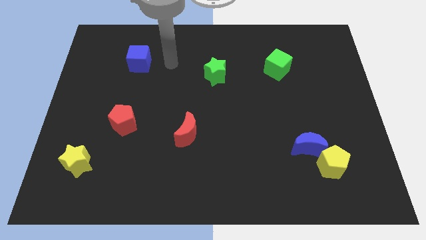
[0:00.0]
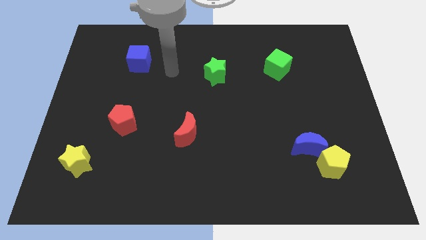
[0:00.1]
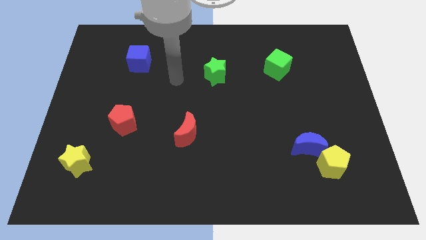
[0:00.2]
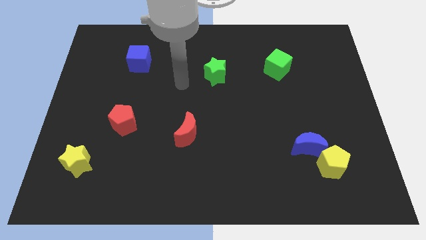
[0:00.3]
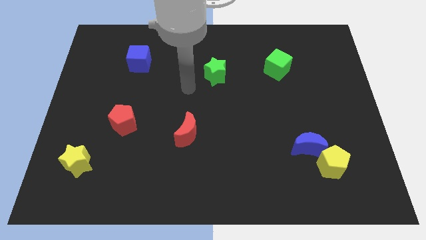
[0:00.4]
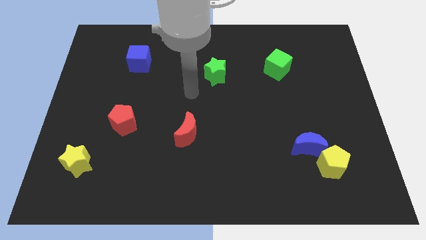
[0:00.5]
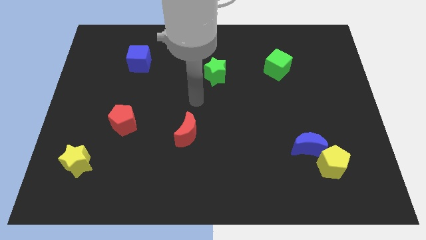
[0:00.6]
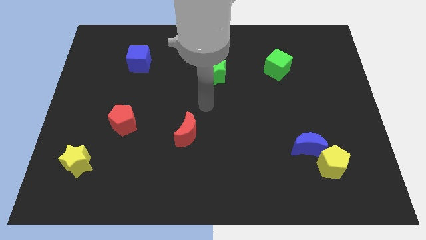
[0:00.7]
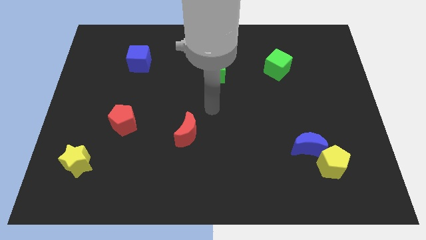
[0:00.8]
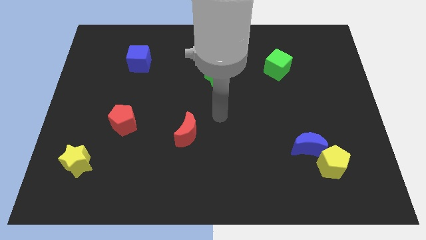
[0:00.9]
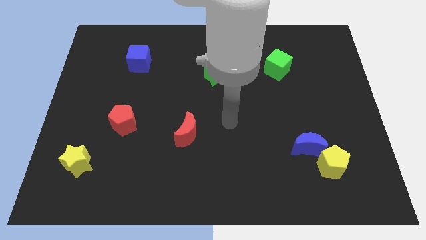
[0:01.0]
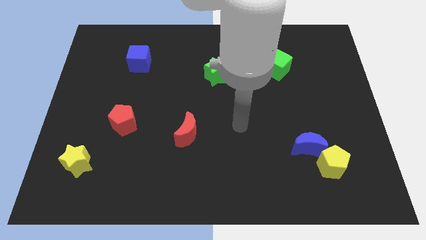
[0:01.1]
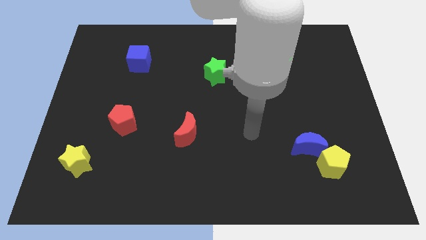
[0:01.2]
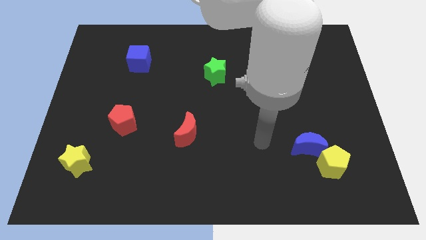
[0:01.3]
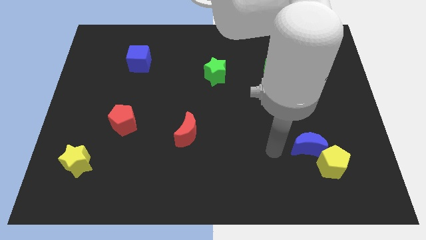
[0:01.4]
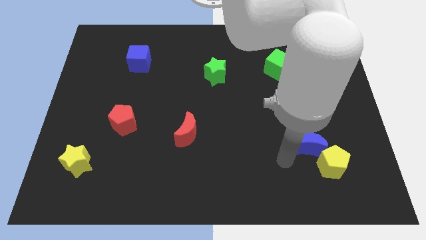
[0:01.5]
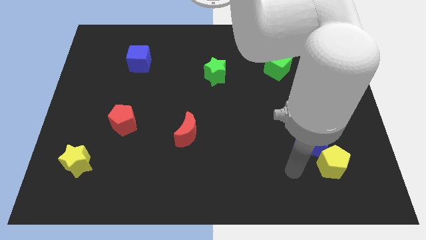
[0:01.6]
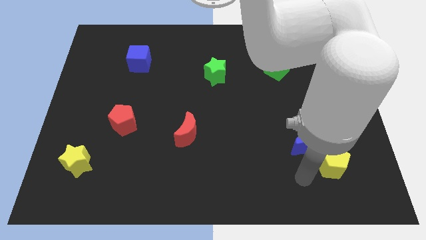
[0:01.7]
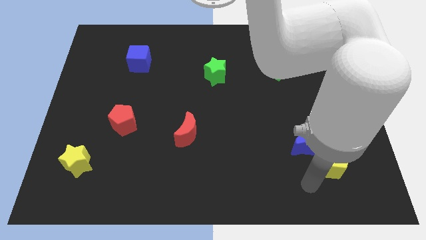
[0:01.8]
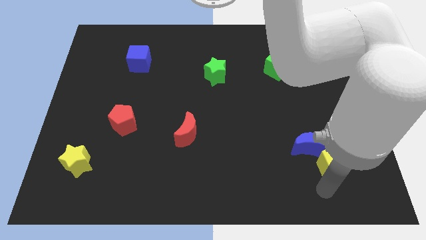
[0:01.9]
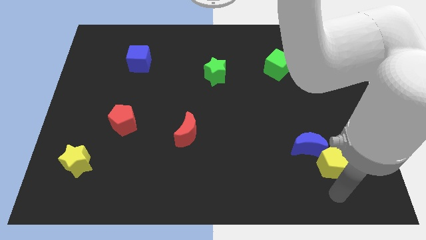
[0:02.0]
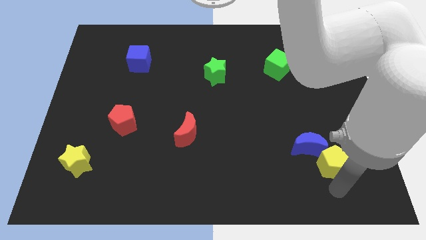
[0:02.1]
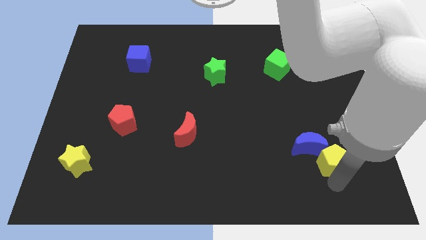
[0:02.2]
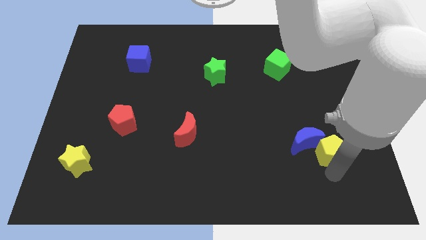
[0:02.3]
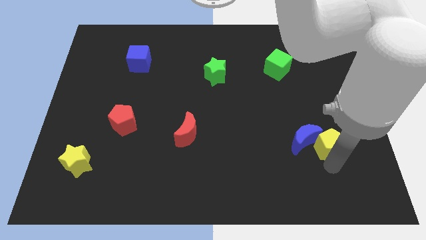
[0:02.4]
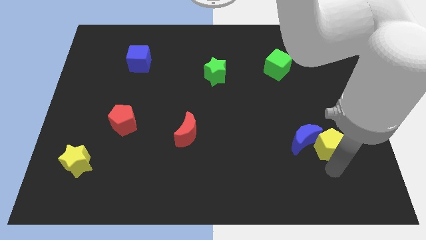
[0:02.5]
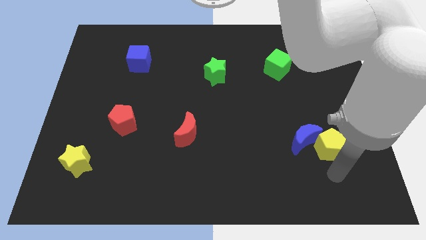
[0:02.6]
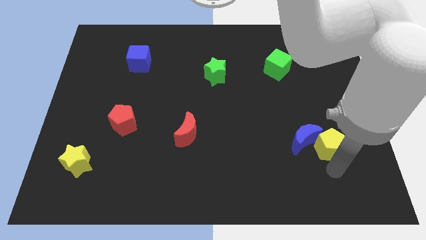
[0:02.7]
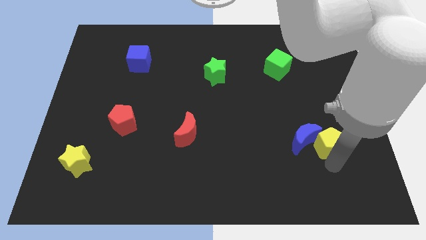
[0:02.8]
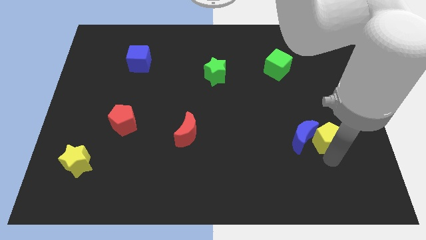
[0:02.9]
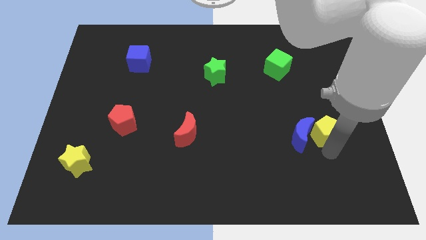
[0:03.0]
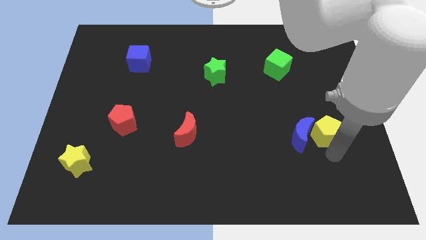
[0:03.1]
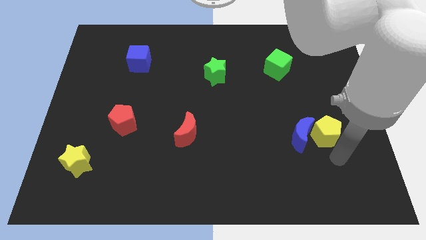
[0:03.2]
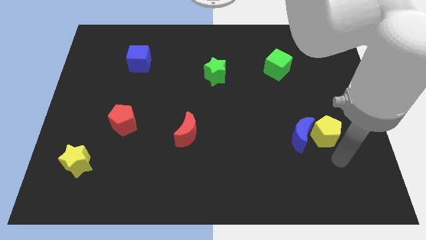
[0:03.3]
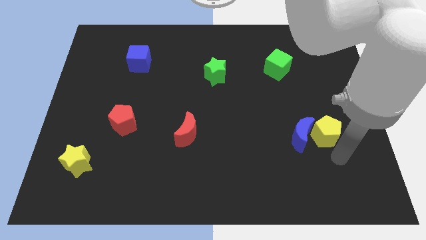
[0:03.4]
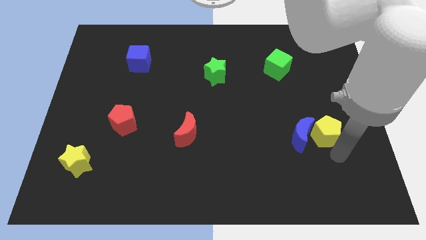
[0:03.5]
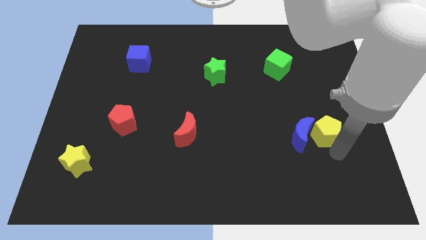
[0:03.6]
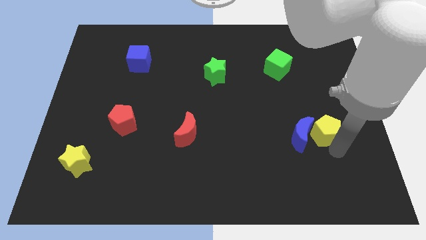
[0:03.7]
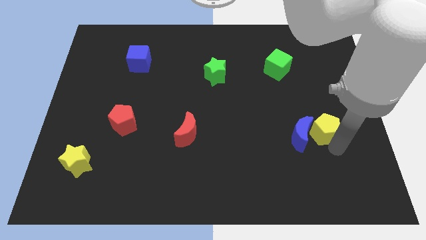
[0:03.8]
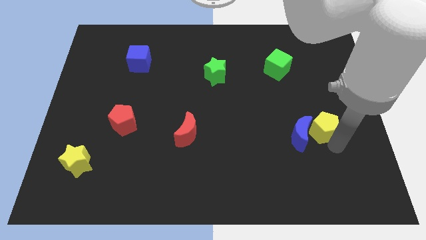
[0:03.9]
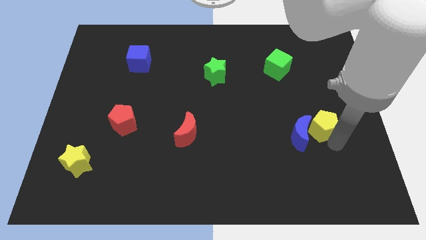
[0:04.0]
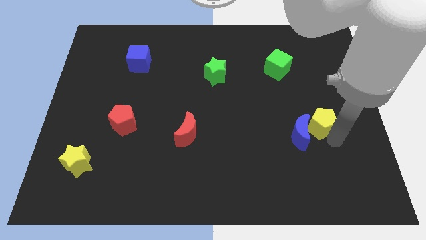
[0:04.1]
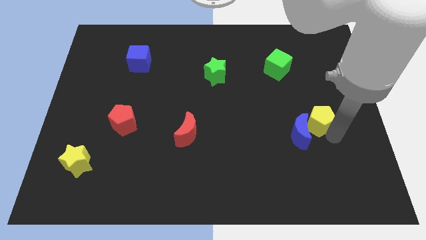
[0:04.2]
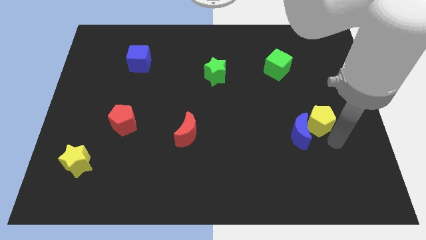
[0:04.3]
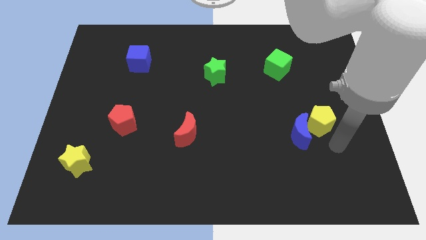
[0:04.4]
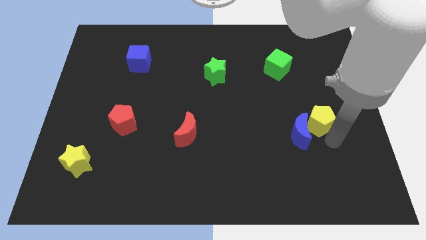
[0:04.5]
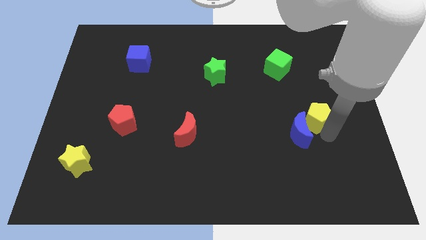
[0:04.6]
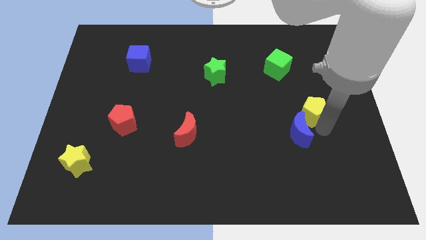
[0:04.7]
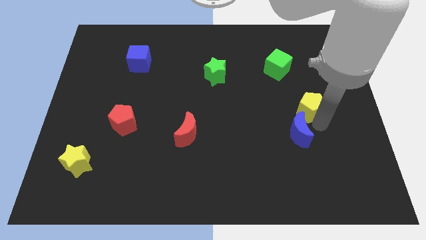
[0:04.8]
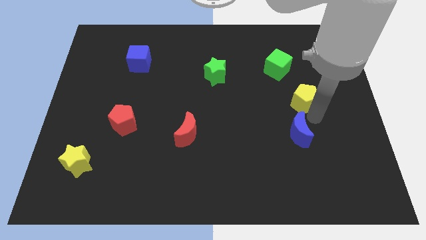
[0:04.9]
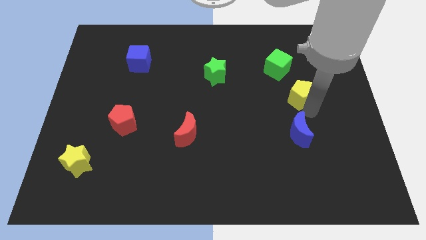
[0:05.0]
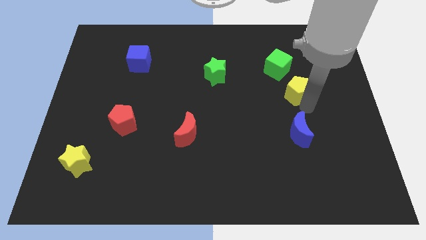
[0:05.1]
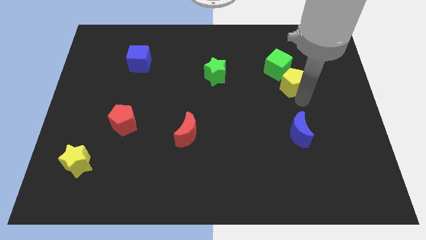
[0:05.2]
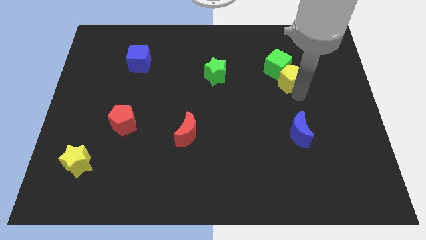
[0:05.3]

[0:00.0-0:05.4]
slide the yellow pentagon towards the green cube
